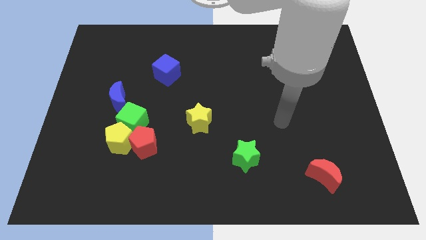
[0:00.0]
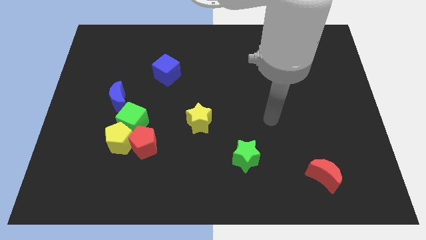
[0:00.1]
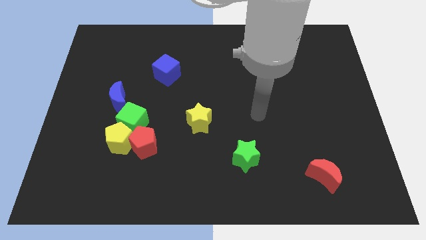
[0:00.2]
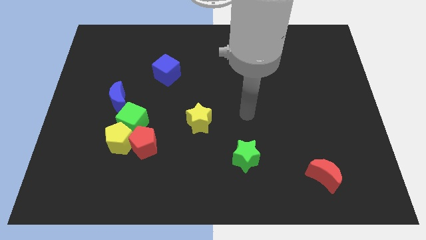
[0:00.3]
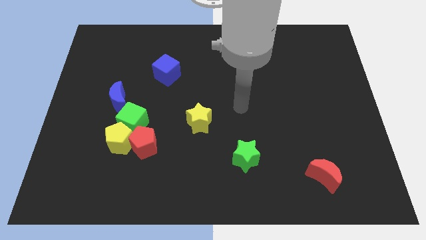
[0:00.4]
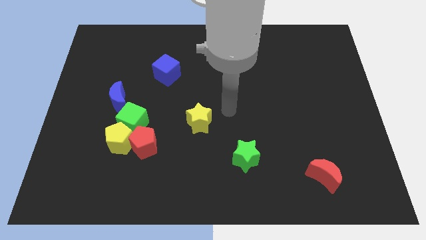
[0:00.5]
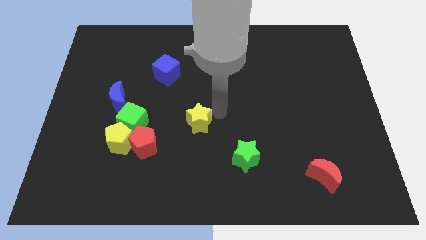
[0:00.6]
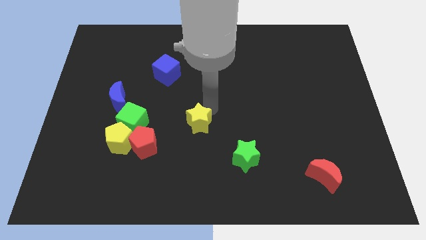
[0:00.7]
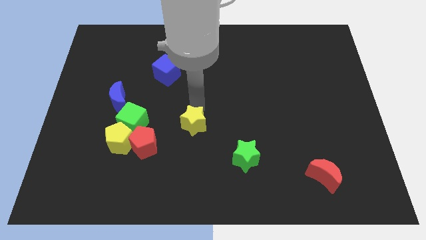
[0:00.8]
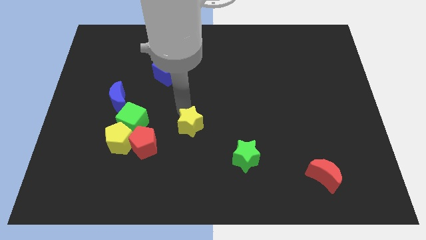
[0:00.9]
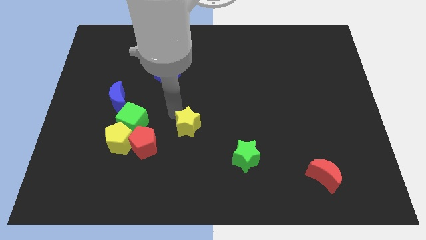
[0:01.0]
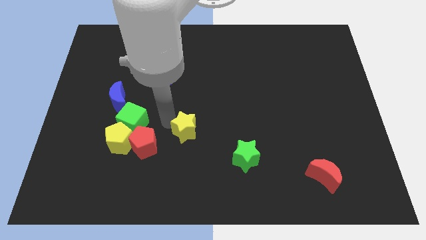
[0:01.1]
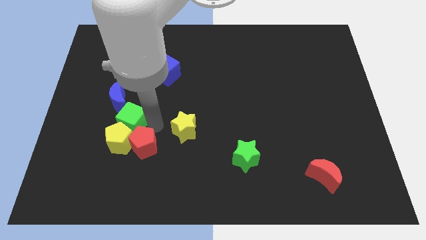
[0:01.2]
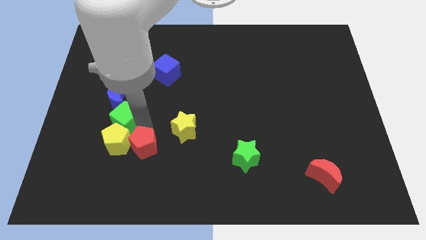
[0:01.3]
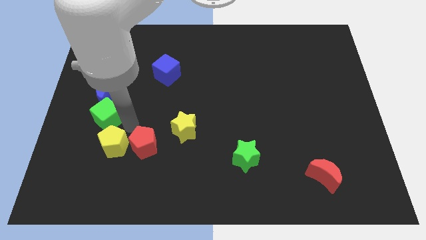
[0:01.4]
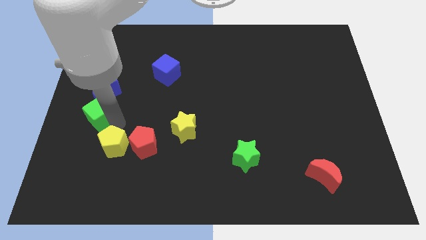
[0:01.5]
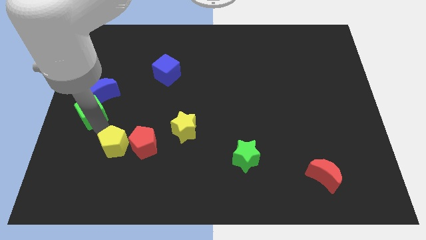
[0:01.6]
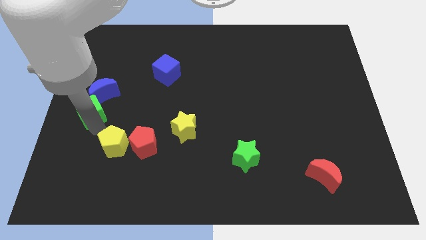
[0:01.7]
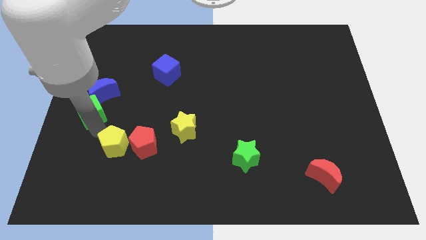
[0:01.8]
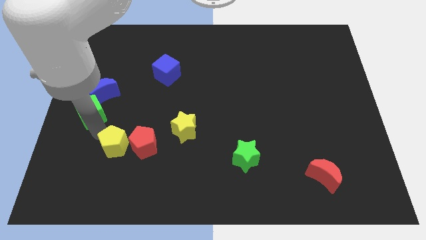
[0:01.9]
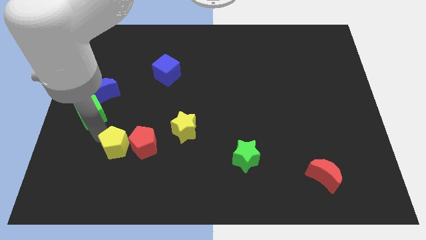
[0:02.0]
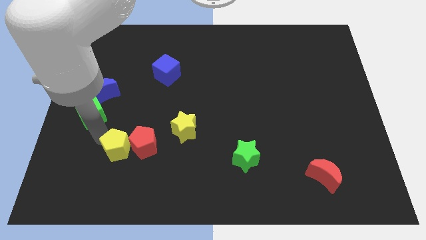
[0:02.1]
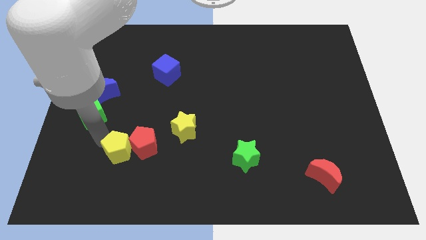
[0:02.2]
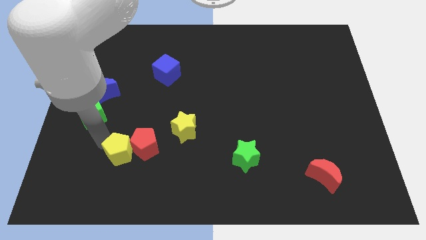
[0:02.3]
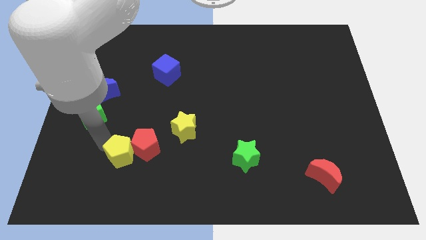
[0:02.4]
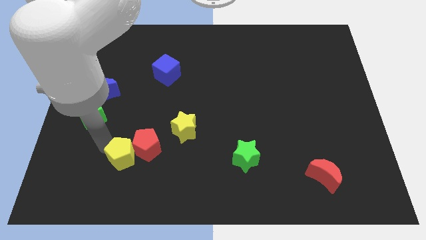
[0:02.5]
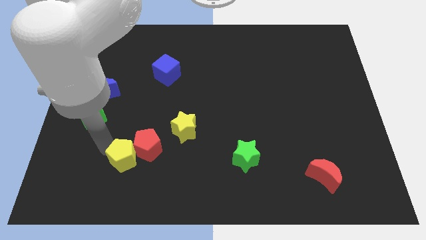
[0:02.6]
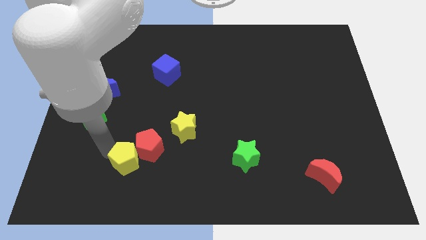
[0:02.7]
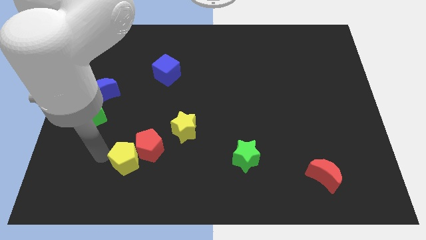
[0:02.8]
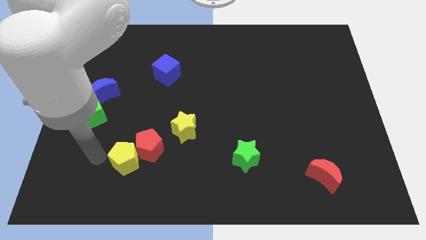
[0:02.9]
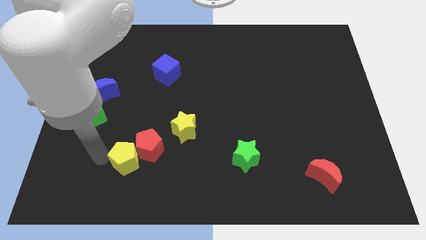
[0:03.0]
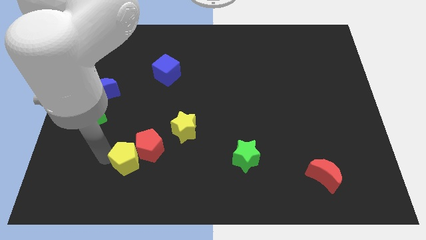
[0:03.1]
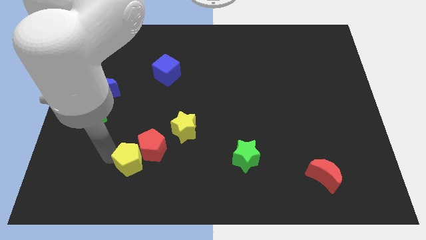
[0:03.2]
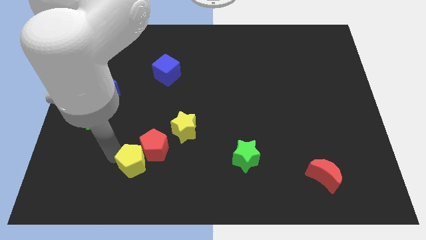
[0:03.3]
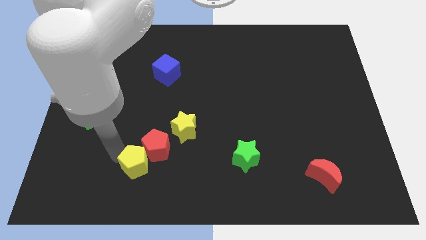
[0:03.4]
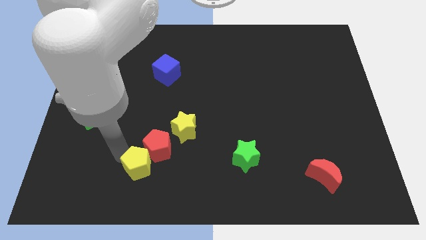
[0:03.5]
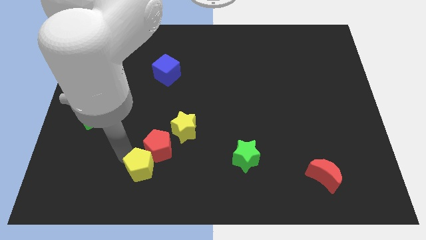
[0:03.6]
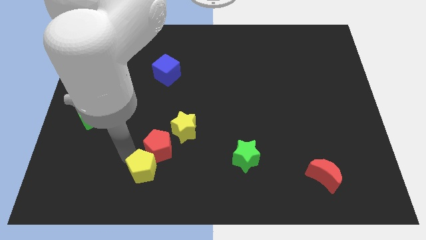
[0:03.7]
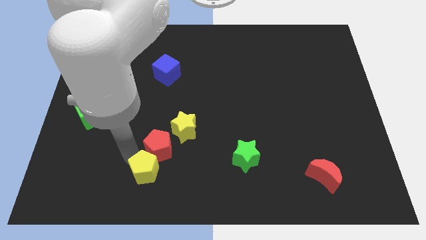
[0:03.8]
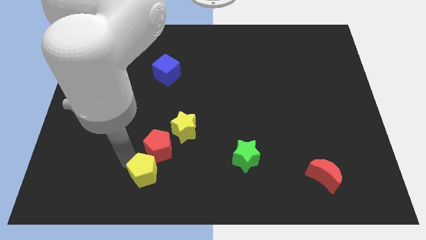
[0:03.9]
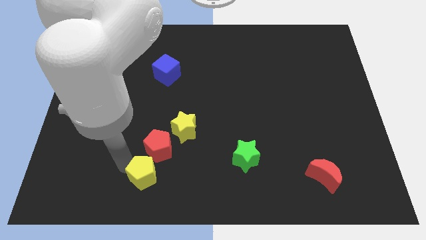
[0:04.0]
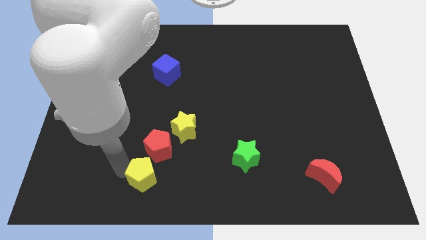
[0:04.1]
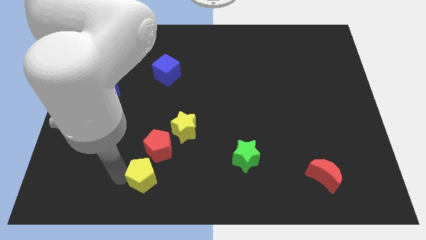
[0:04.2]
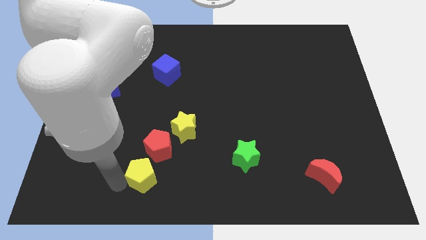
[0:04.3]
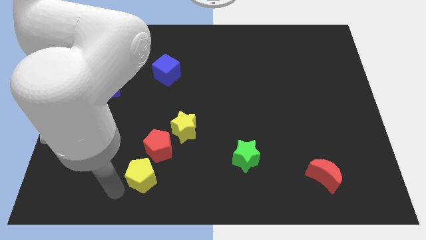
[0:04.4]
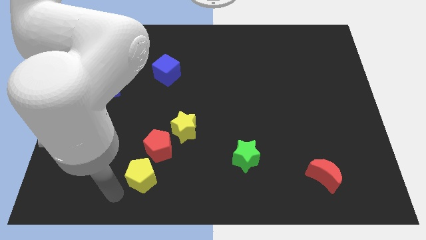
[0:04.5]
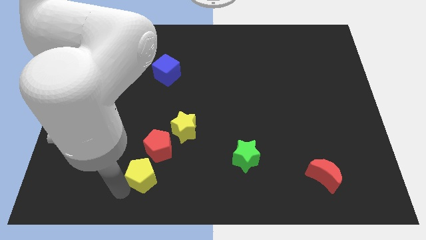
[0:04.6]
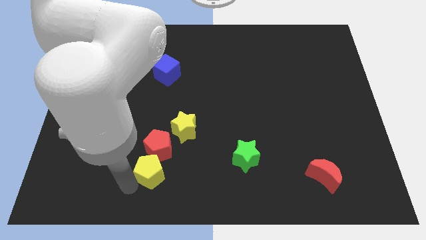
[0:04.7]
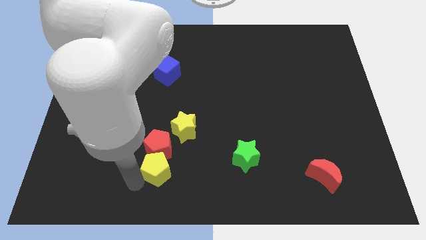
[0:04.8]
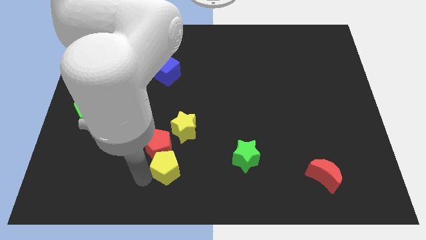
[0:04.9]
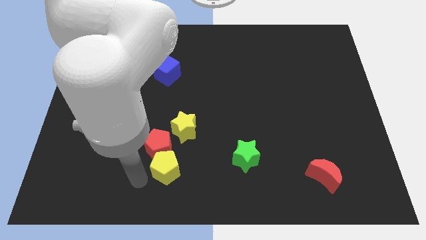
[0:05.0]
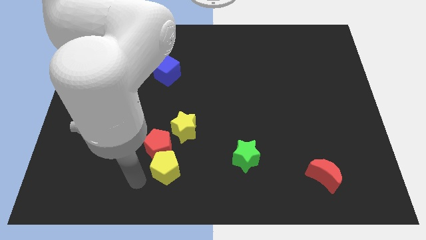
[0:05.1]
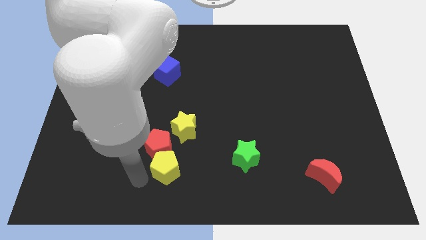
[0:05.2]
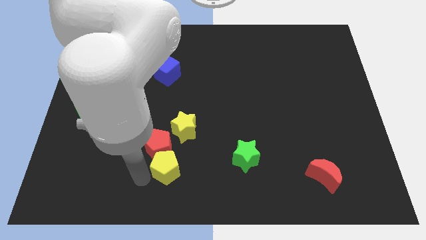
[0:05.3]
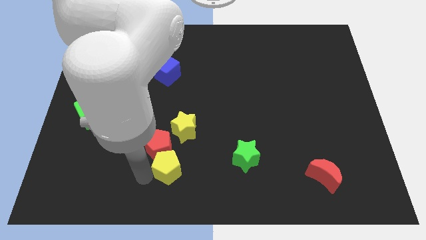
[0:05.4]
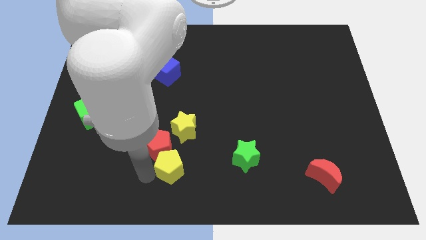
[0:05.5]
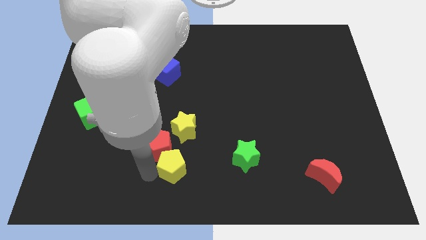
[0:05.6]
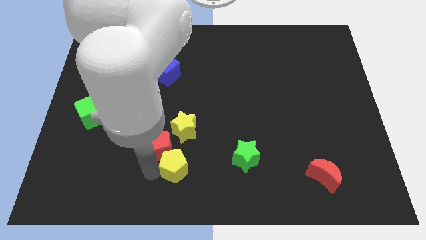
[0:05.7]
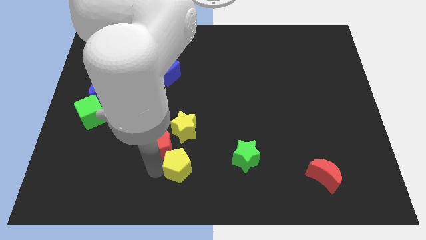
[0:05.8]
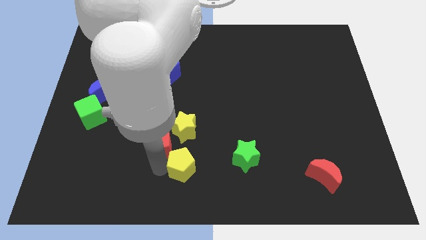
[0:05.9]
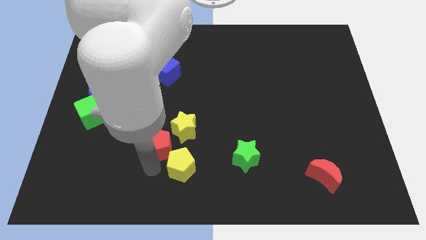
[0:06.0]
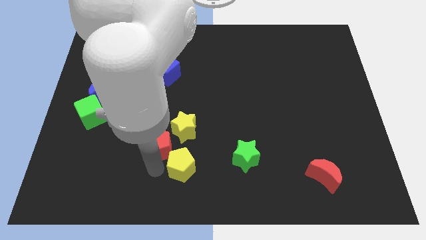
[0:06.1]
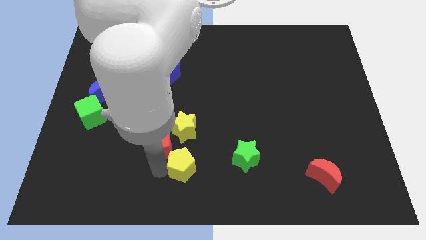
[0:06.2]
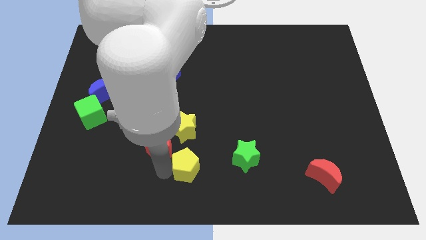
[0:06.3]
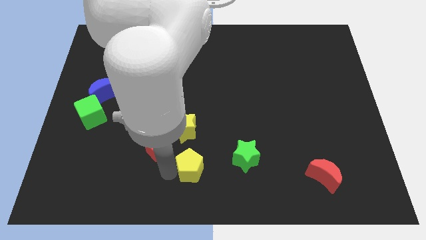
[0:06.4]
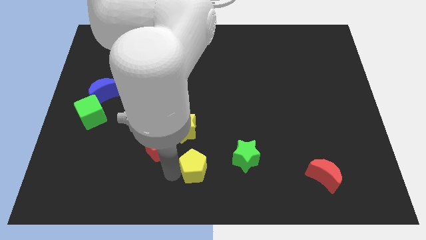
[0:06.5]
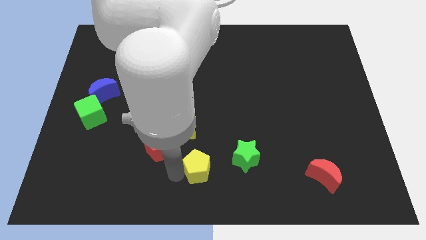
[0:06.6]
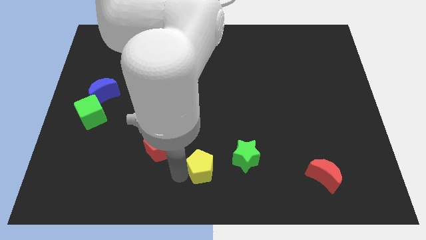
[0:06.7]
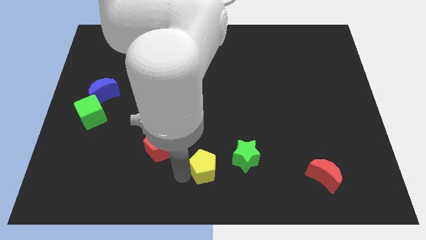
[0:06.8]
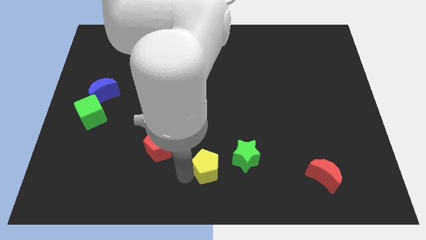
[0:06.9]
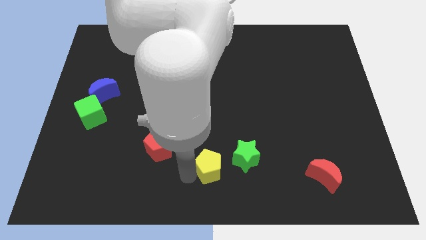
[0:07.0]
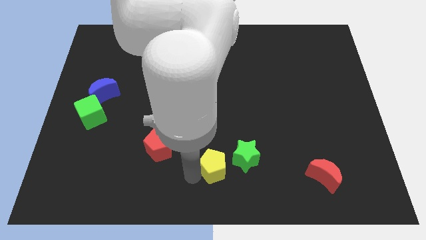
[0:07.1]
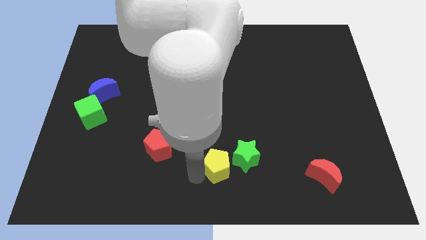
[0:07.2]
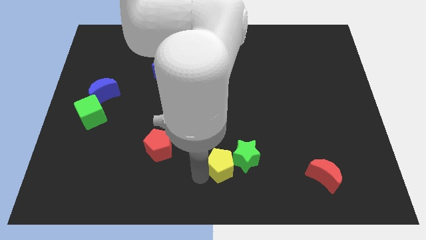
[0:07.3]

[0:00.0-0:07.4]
slide the yellow pentagon next to the green star
